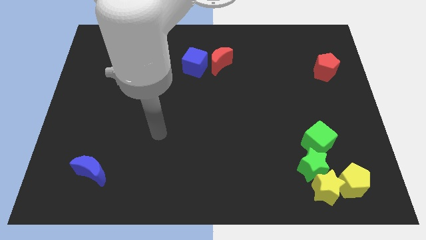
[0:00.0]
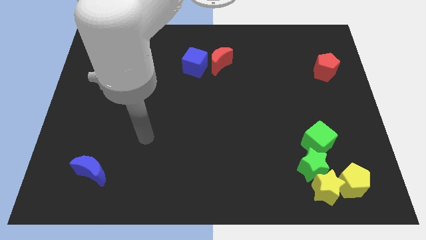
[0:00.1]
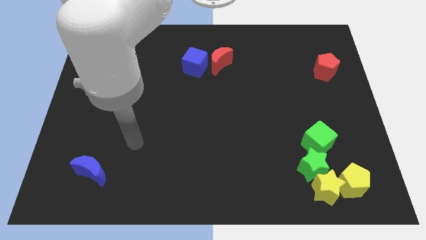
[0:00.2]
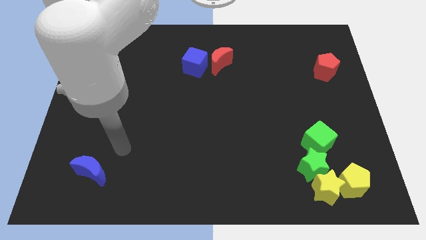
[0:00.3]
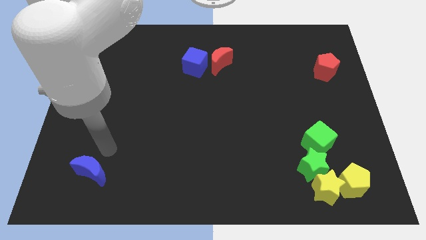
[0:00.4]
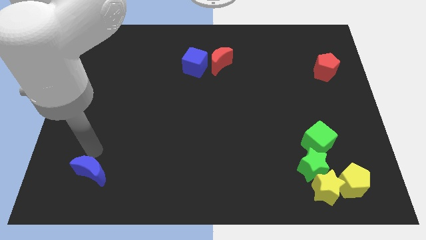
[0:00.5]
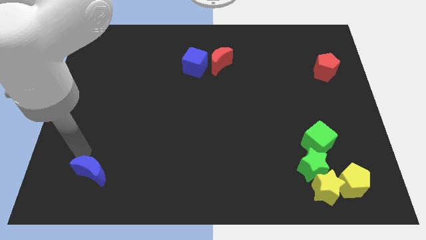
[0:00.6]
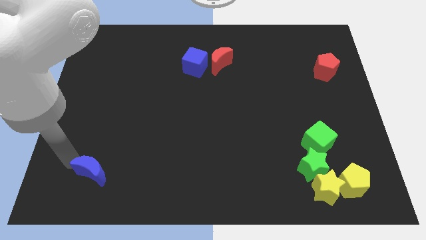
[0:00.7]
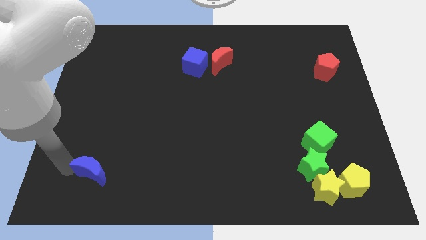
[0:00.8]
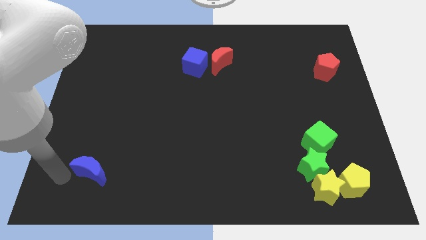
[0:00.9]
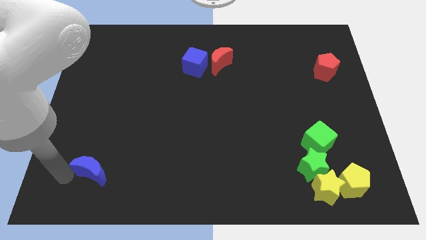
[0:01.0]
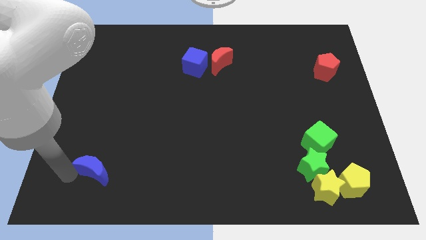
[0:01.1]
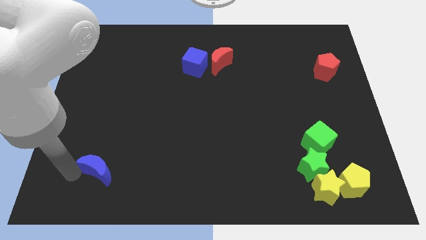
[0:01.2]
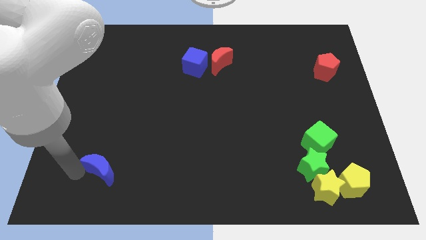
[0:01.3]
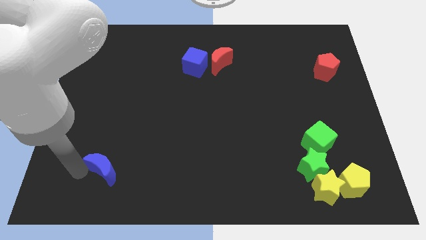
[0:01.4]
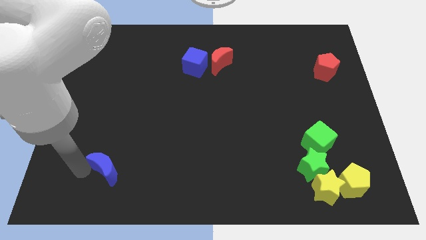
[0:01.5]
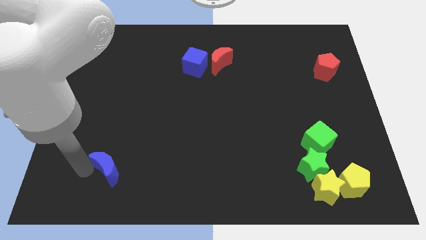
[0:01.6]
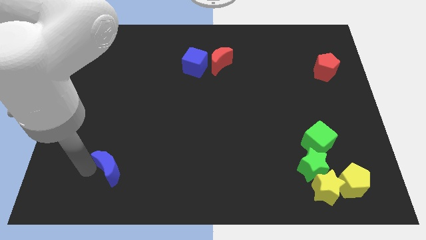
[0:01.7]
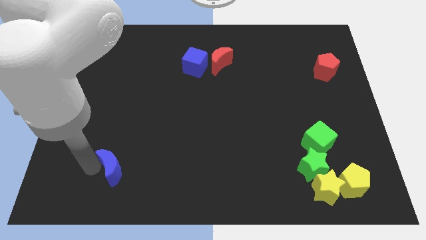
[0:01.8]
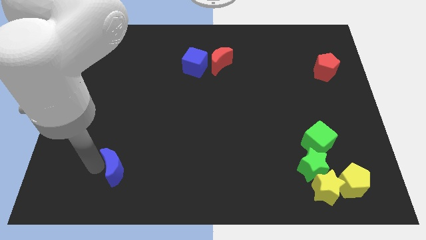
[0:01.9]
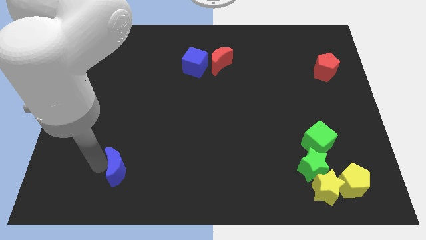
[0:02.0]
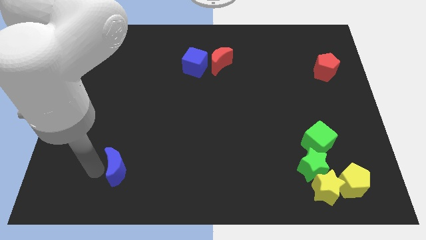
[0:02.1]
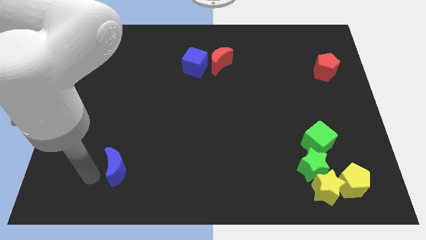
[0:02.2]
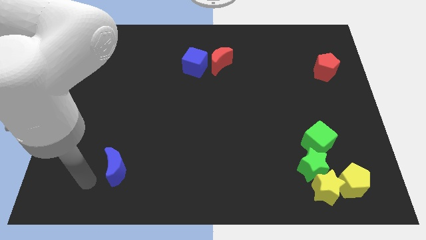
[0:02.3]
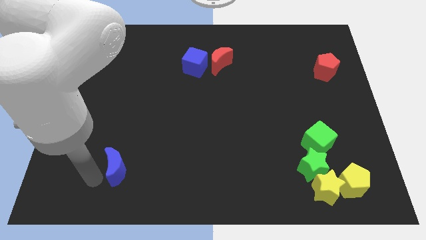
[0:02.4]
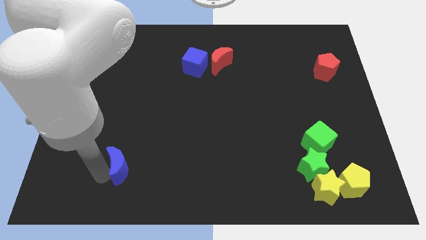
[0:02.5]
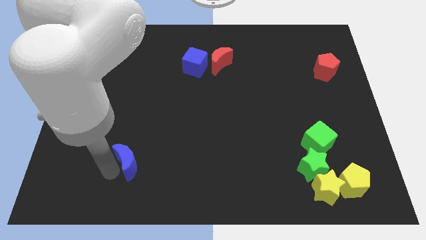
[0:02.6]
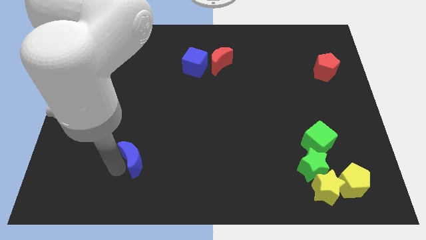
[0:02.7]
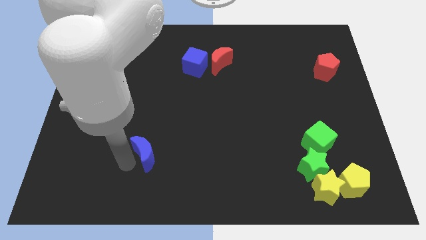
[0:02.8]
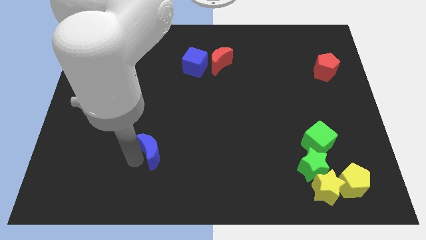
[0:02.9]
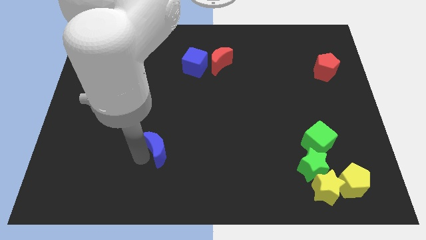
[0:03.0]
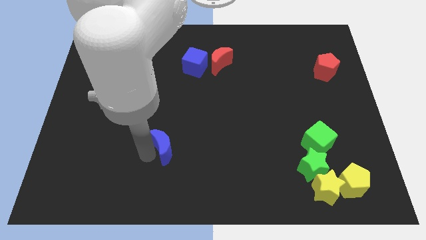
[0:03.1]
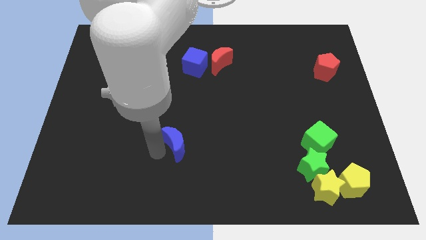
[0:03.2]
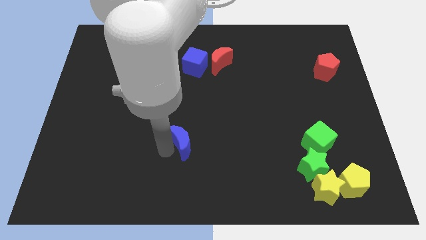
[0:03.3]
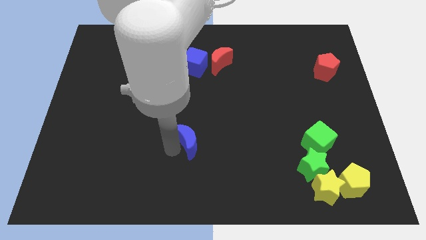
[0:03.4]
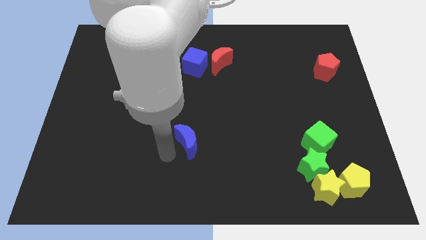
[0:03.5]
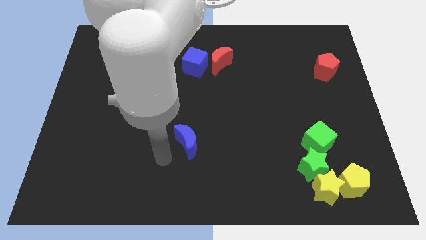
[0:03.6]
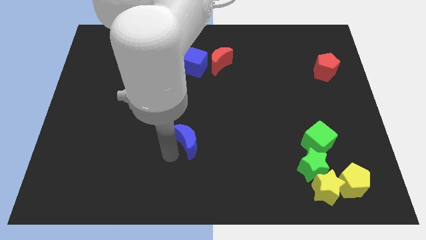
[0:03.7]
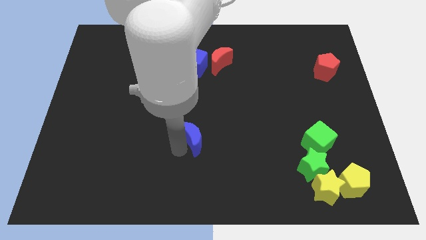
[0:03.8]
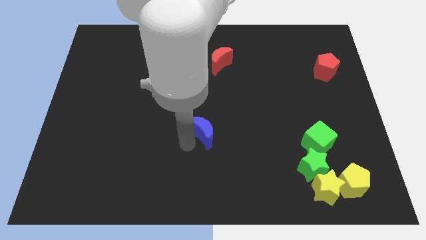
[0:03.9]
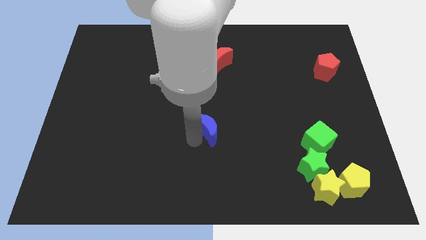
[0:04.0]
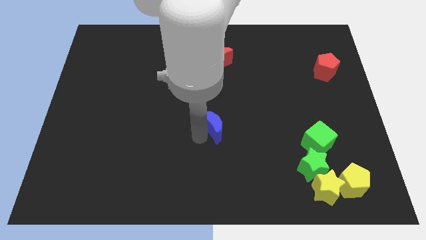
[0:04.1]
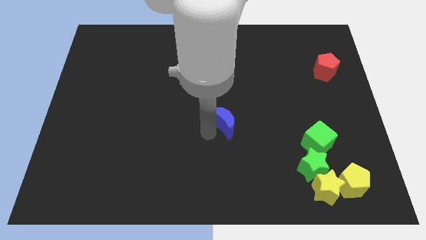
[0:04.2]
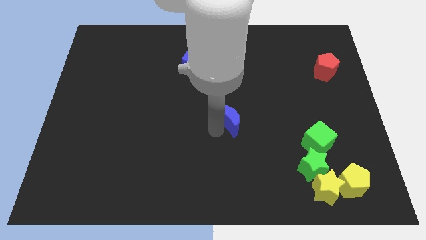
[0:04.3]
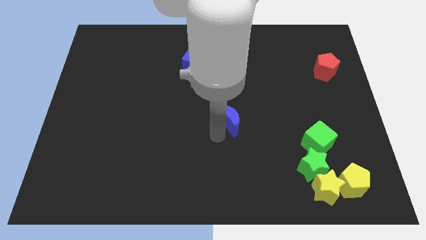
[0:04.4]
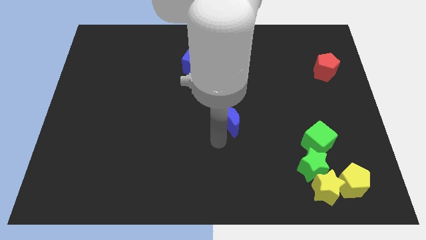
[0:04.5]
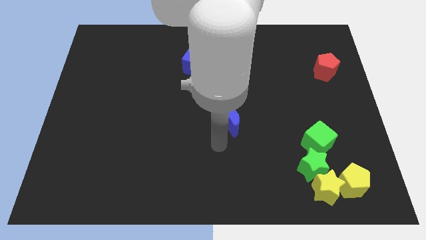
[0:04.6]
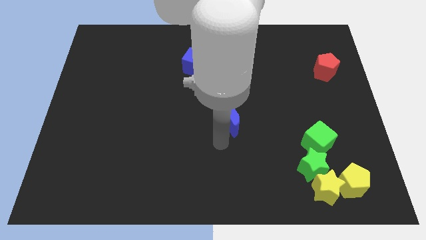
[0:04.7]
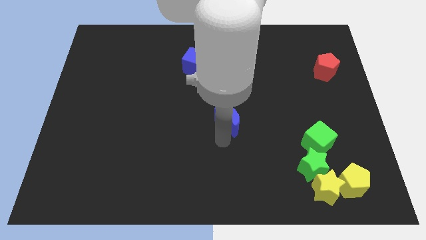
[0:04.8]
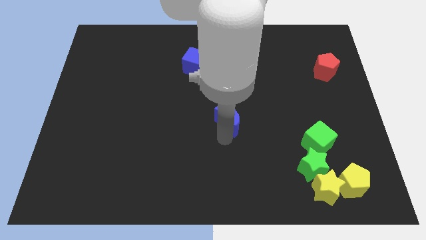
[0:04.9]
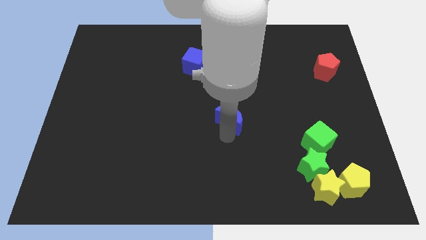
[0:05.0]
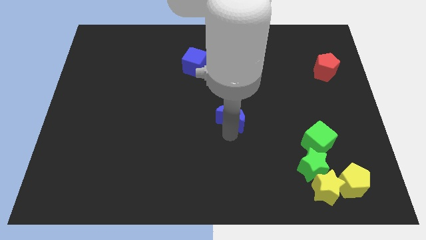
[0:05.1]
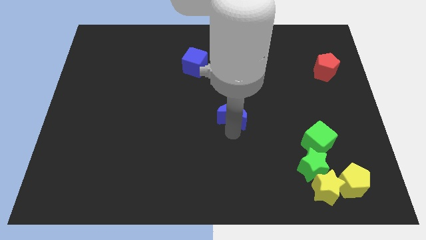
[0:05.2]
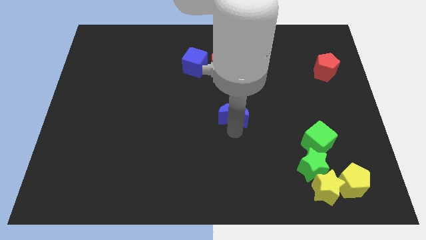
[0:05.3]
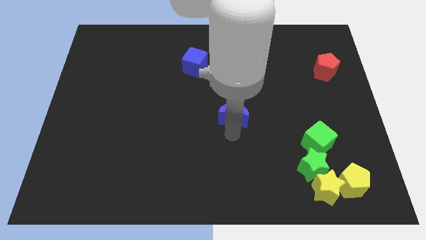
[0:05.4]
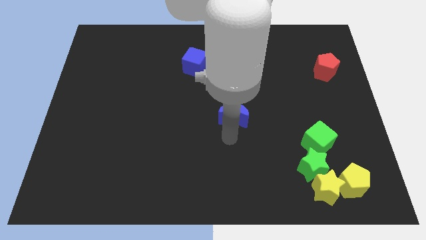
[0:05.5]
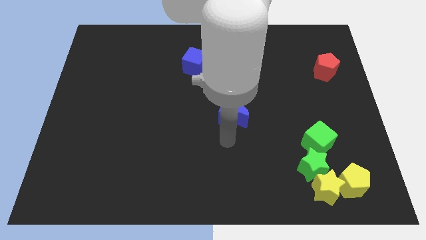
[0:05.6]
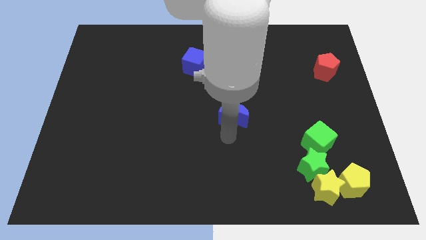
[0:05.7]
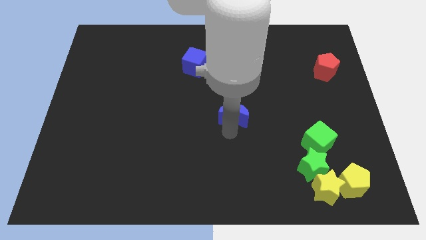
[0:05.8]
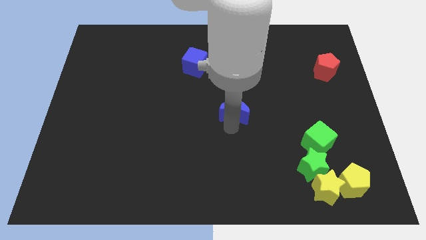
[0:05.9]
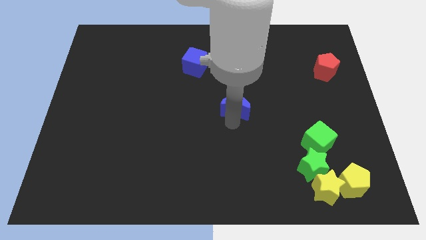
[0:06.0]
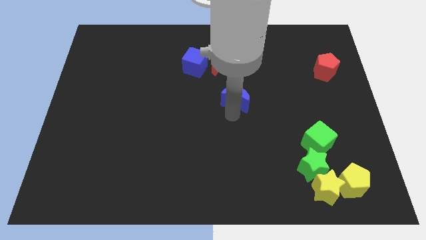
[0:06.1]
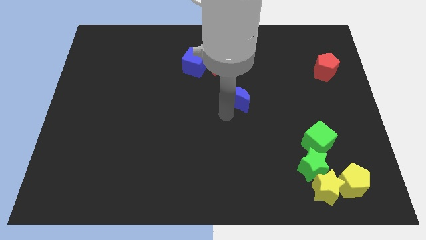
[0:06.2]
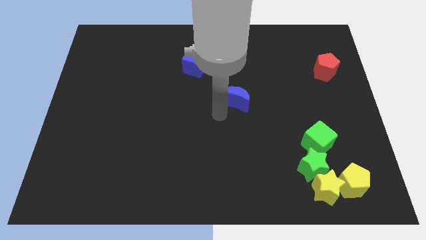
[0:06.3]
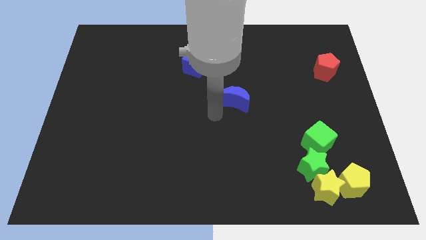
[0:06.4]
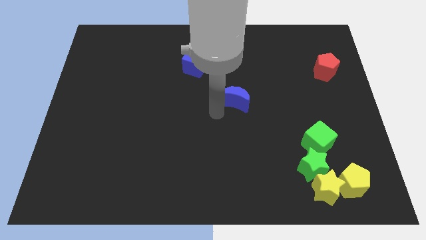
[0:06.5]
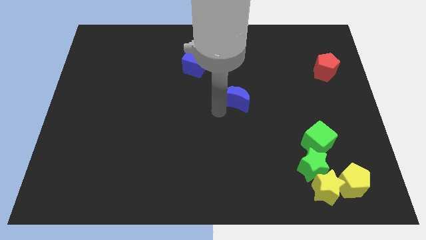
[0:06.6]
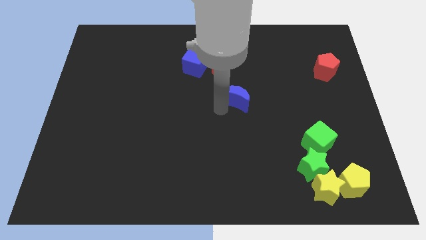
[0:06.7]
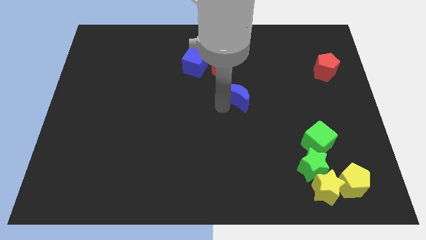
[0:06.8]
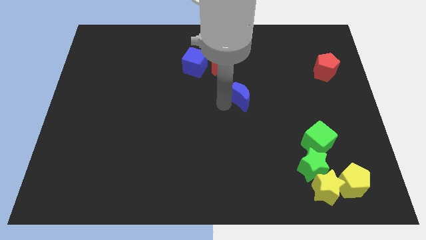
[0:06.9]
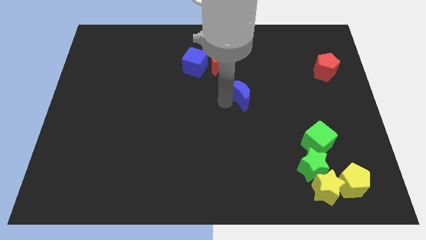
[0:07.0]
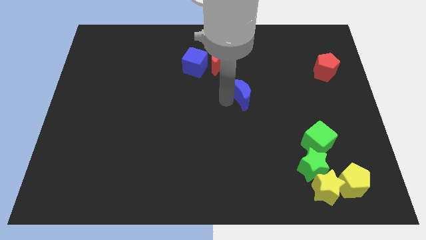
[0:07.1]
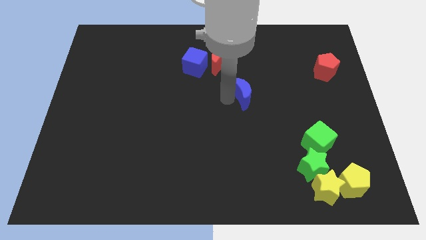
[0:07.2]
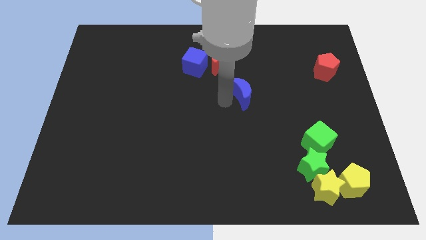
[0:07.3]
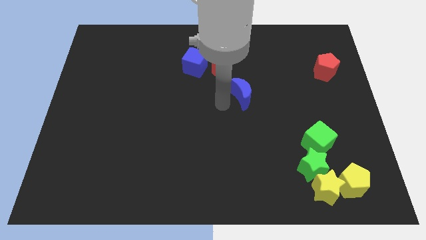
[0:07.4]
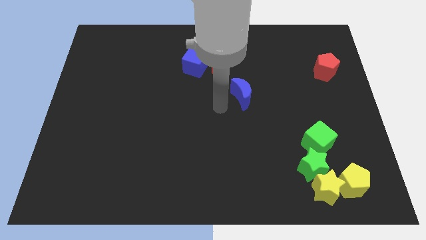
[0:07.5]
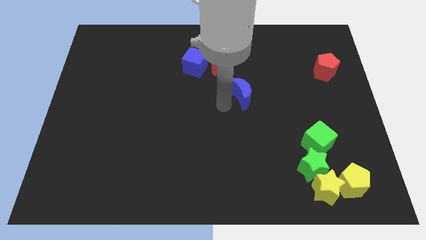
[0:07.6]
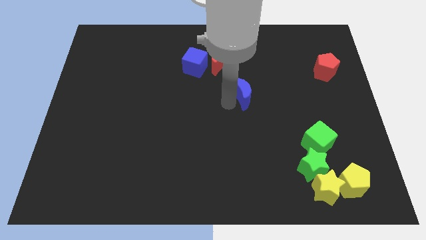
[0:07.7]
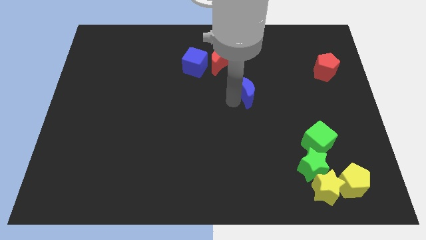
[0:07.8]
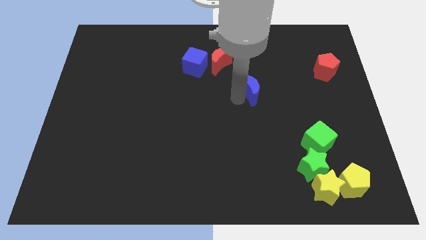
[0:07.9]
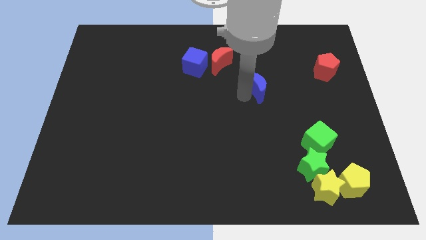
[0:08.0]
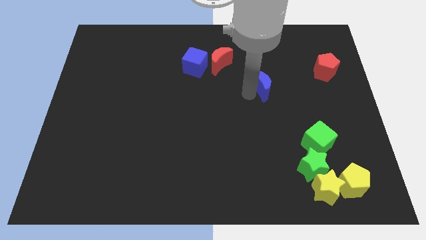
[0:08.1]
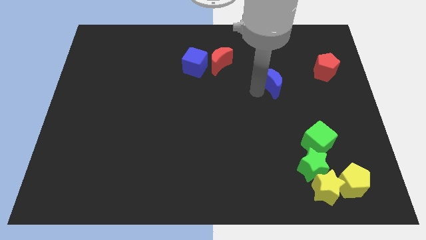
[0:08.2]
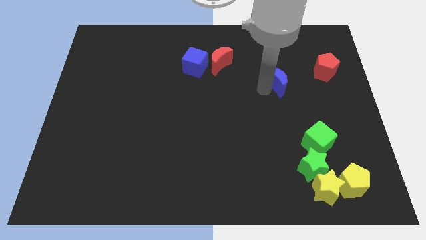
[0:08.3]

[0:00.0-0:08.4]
put the blue moon to the left side of the red pentagon
